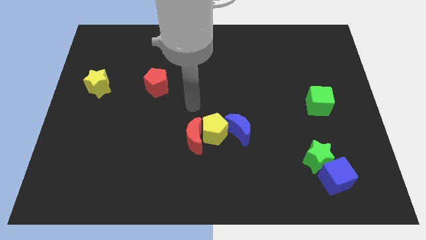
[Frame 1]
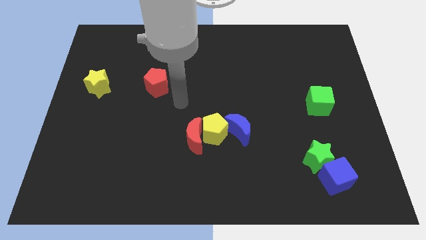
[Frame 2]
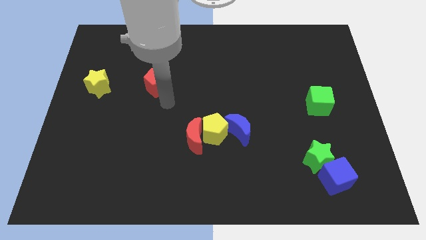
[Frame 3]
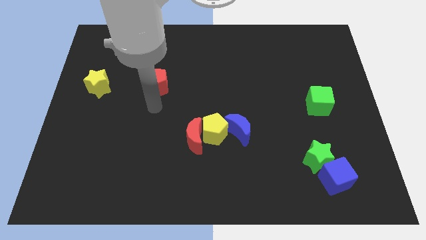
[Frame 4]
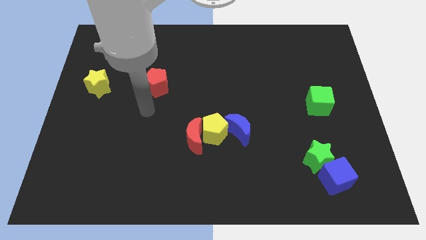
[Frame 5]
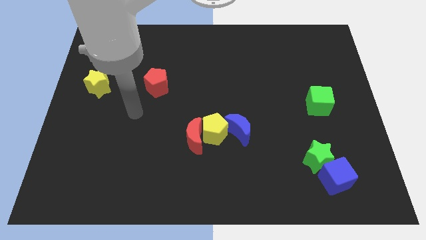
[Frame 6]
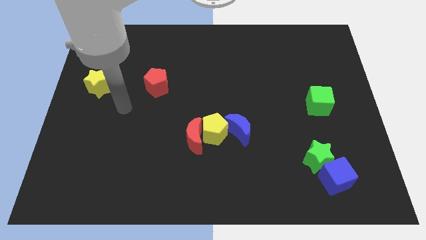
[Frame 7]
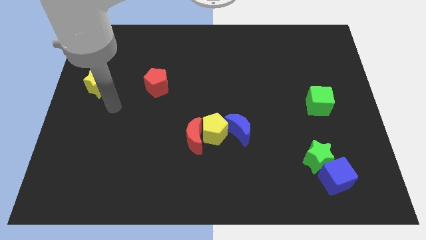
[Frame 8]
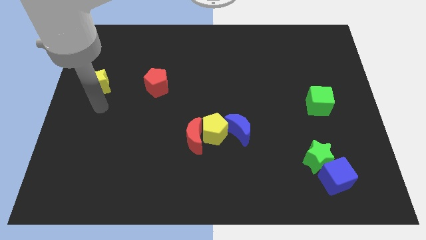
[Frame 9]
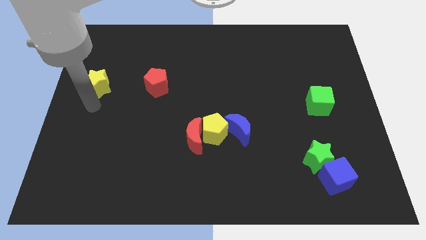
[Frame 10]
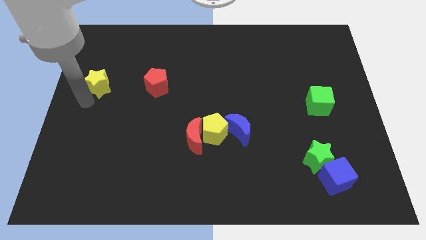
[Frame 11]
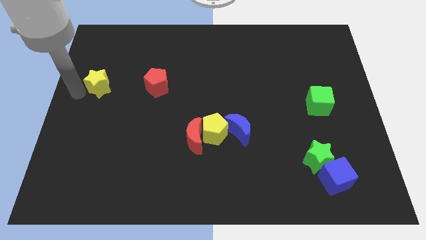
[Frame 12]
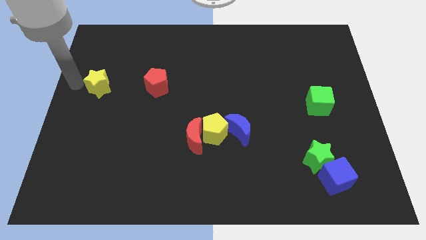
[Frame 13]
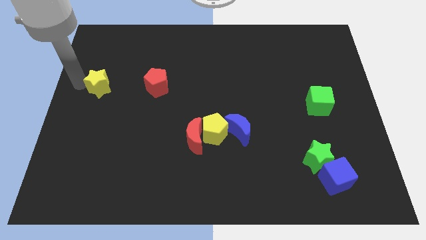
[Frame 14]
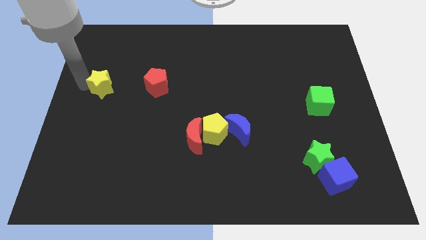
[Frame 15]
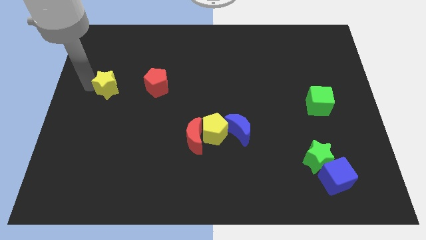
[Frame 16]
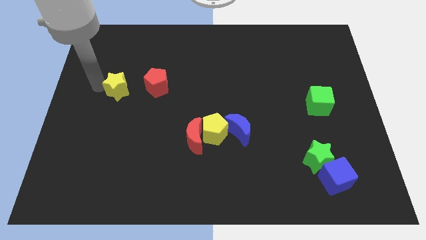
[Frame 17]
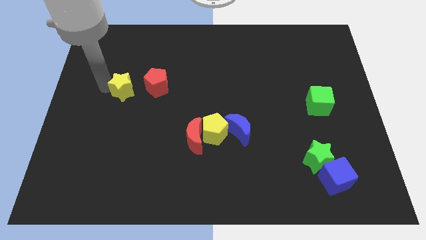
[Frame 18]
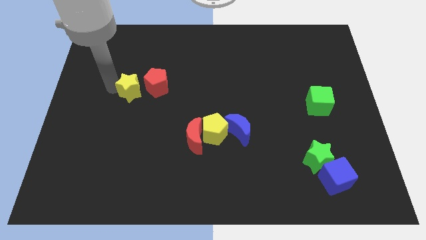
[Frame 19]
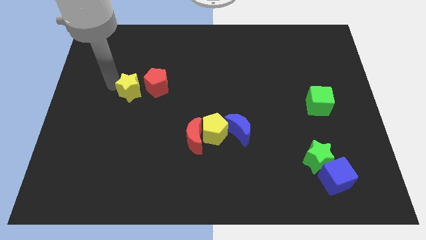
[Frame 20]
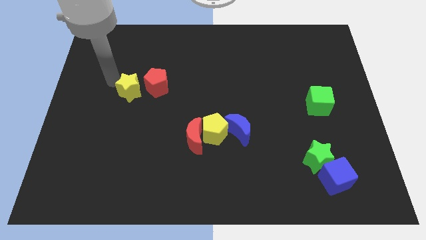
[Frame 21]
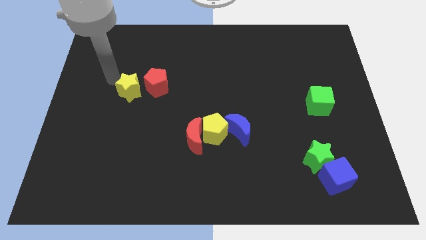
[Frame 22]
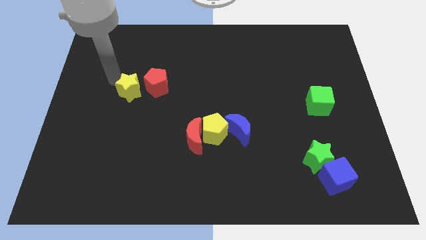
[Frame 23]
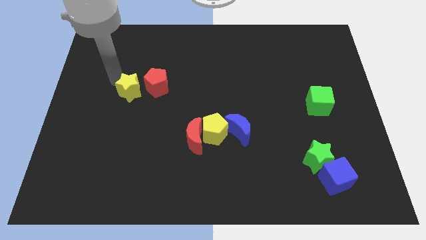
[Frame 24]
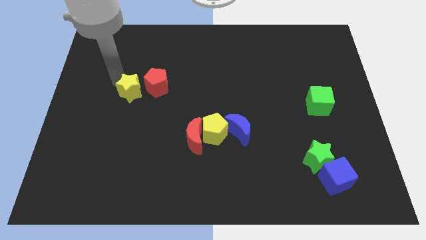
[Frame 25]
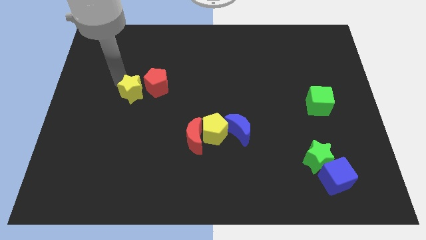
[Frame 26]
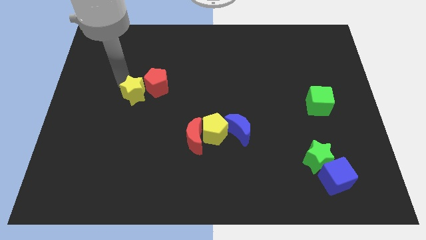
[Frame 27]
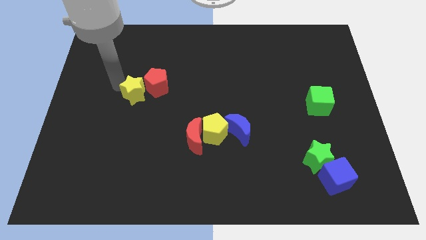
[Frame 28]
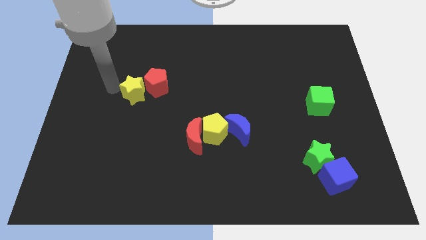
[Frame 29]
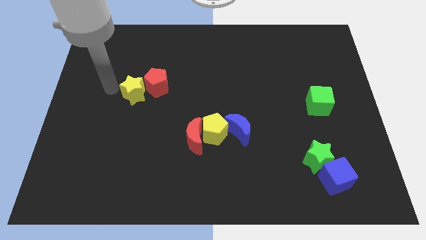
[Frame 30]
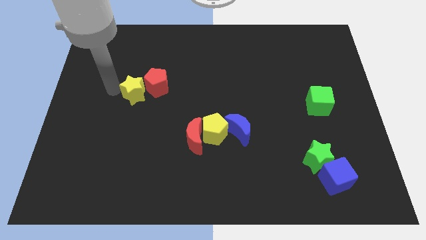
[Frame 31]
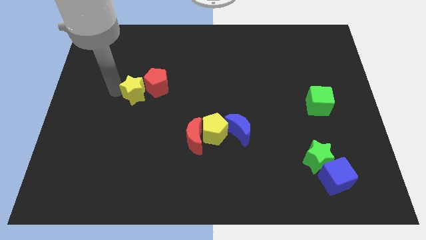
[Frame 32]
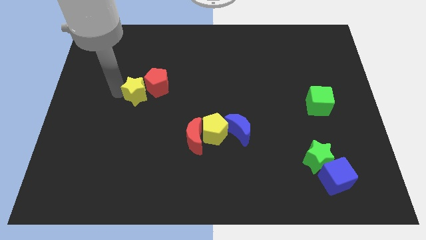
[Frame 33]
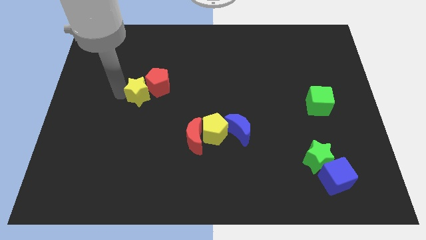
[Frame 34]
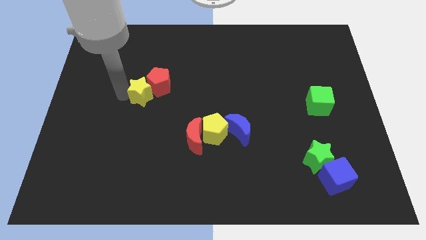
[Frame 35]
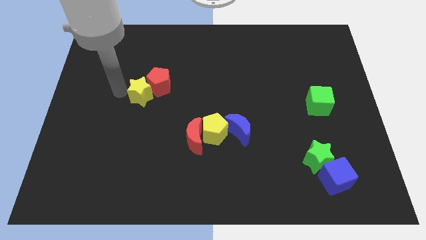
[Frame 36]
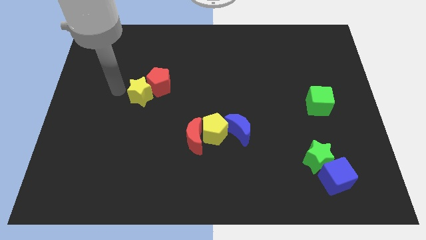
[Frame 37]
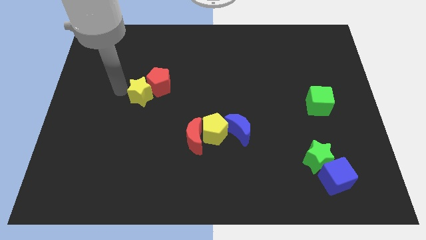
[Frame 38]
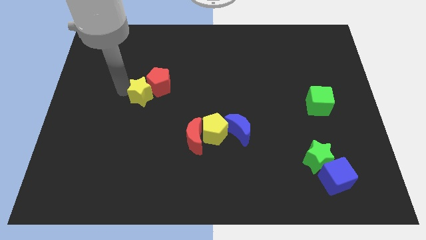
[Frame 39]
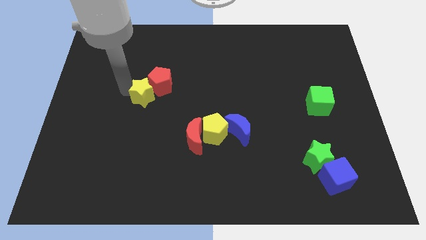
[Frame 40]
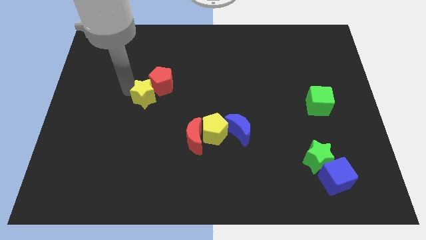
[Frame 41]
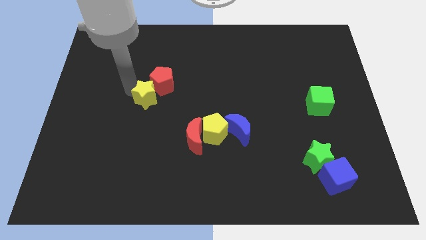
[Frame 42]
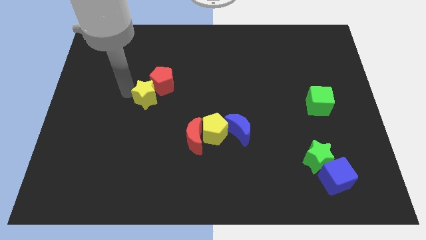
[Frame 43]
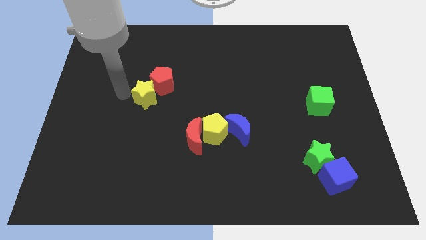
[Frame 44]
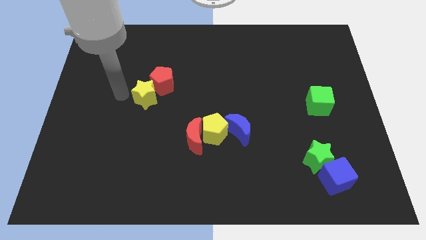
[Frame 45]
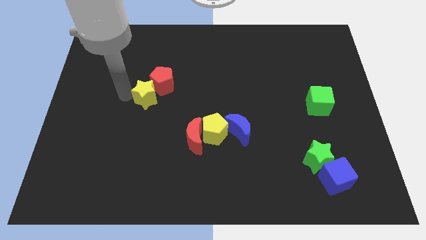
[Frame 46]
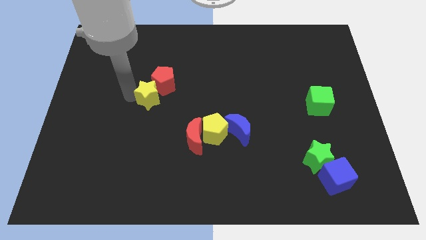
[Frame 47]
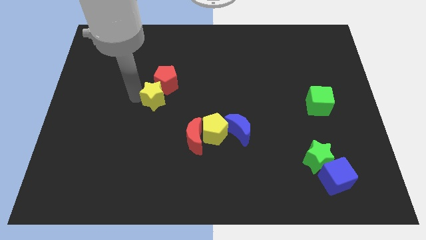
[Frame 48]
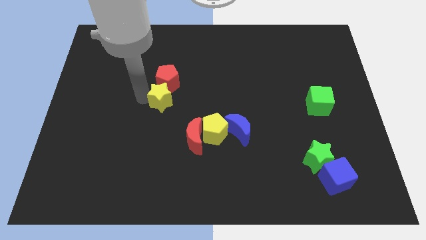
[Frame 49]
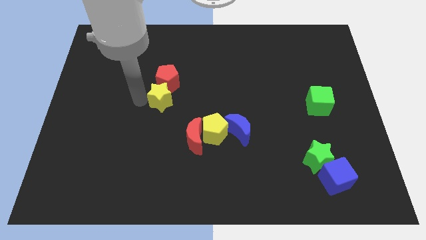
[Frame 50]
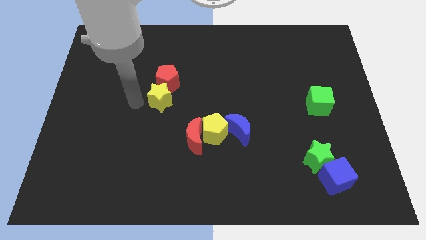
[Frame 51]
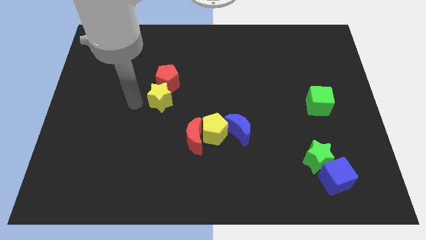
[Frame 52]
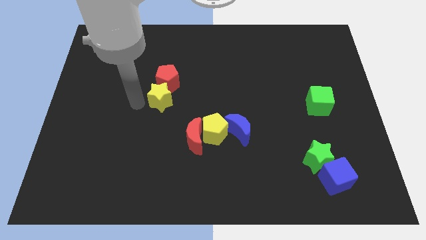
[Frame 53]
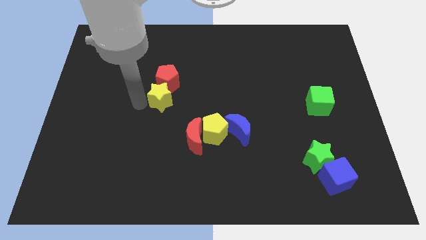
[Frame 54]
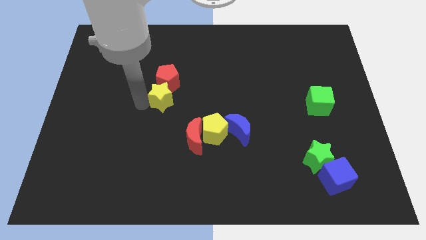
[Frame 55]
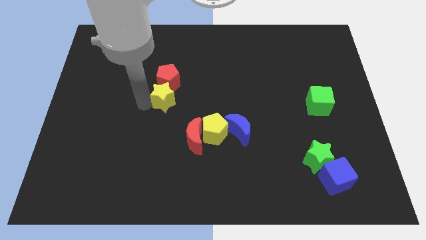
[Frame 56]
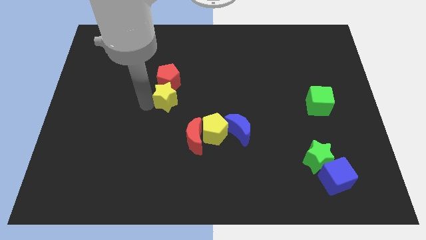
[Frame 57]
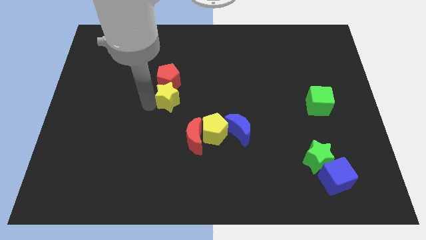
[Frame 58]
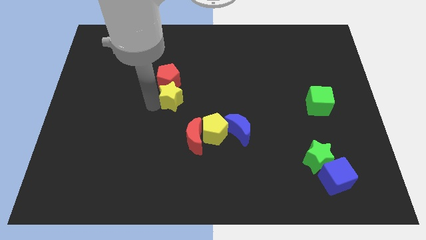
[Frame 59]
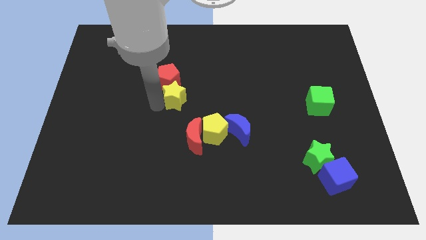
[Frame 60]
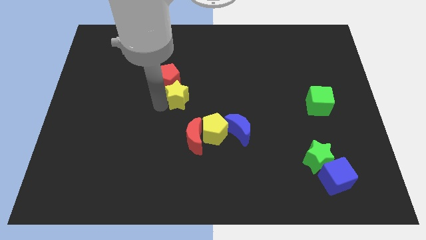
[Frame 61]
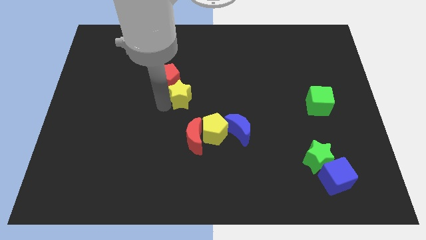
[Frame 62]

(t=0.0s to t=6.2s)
move the yellow star right

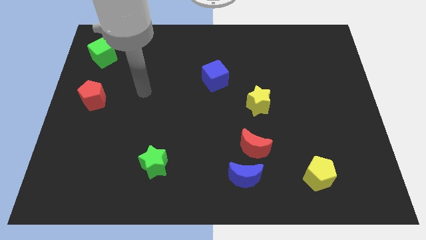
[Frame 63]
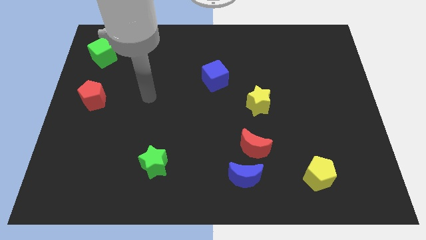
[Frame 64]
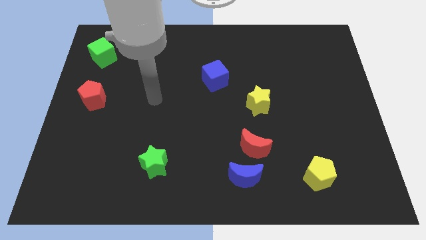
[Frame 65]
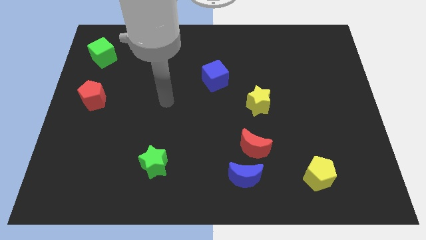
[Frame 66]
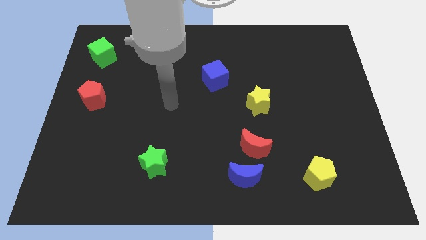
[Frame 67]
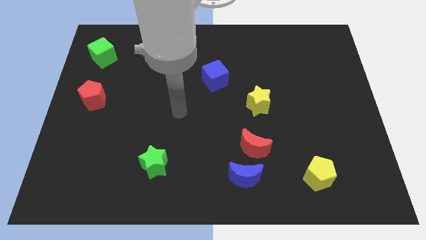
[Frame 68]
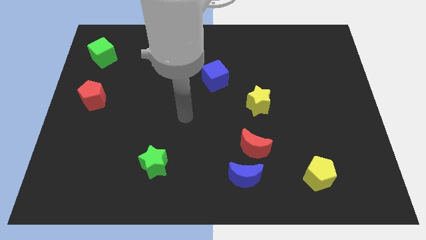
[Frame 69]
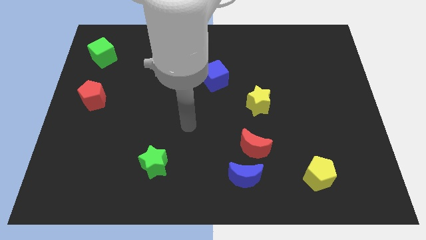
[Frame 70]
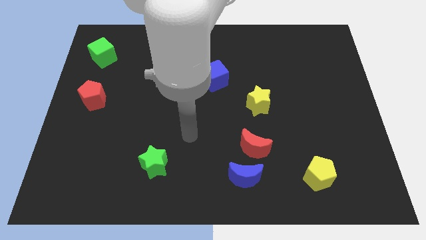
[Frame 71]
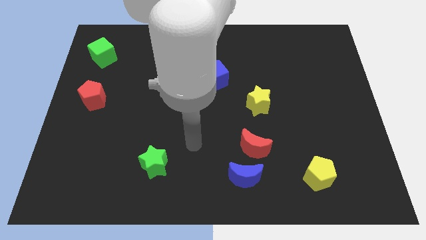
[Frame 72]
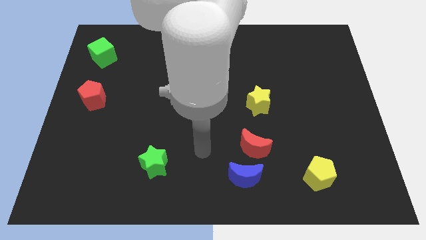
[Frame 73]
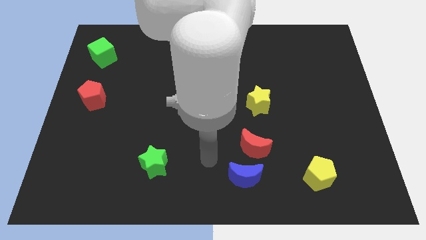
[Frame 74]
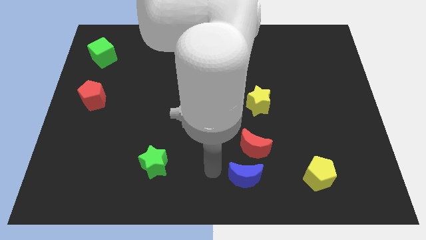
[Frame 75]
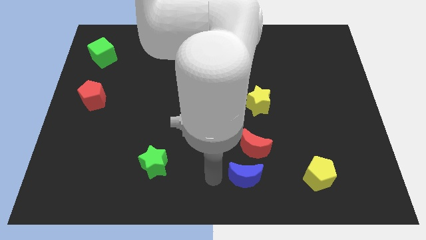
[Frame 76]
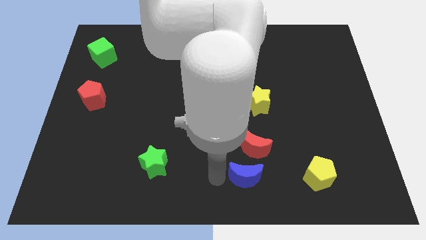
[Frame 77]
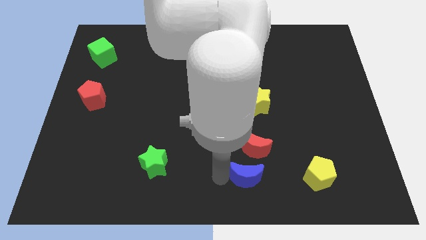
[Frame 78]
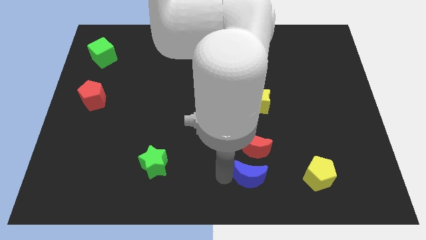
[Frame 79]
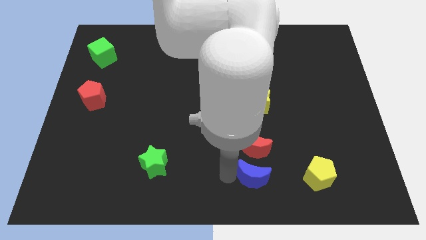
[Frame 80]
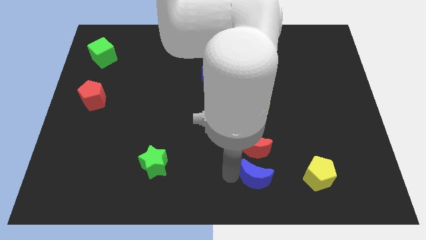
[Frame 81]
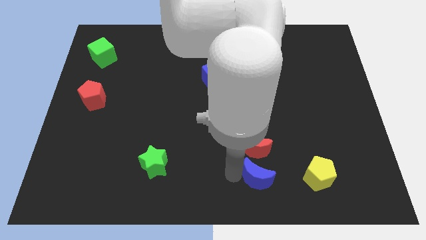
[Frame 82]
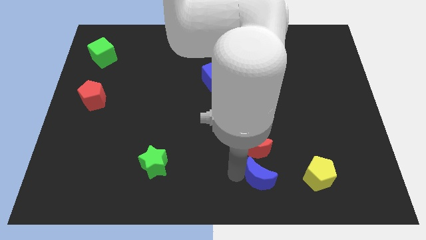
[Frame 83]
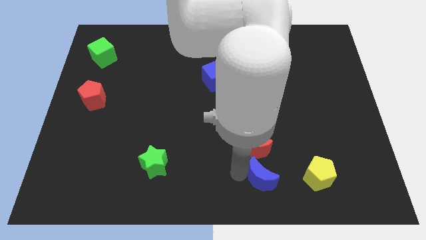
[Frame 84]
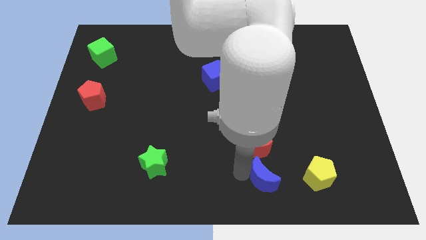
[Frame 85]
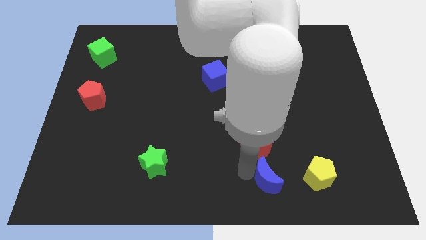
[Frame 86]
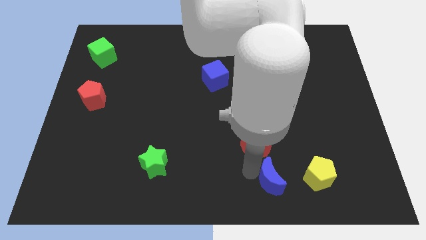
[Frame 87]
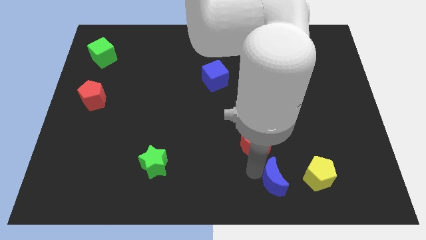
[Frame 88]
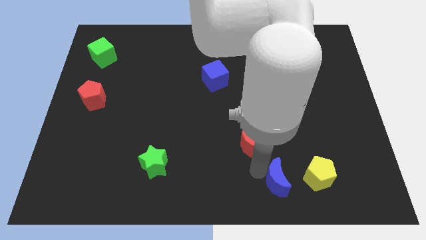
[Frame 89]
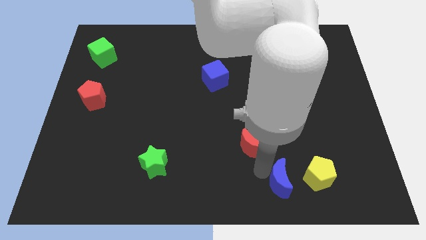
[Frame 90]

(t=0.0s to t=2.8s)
slide the blue moon right a little bit
